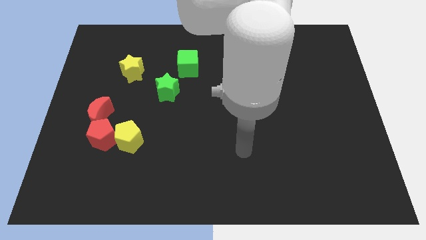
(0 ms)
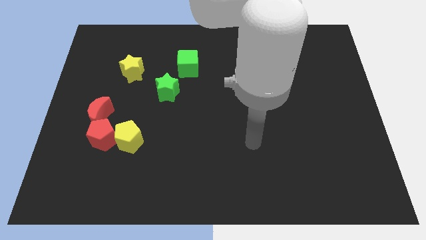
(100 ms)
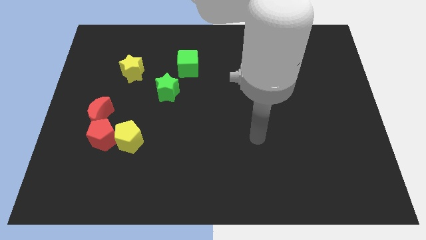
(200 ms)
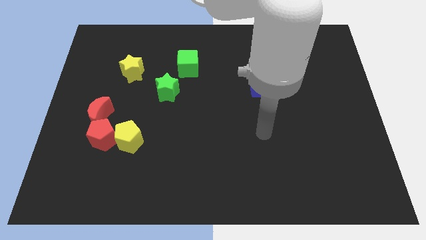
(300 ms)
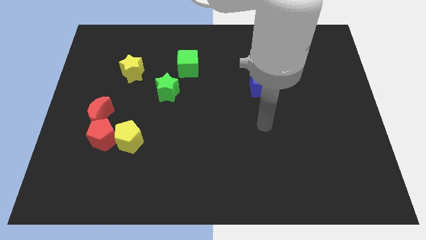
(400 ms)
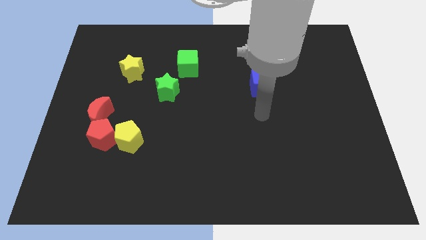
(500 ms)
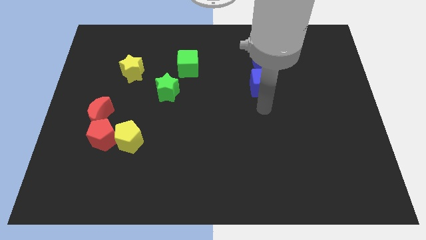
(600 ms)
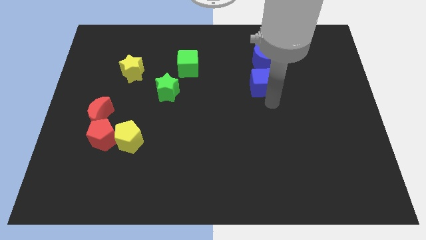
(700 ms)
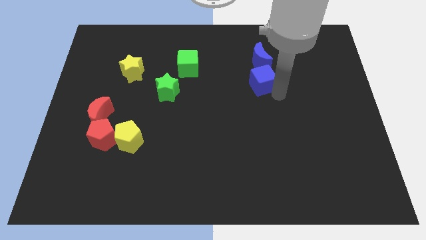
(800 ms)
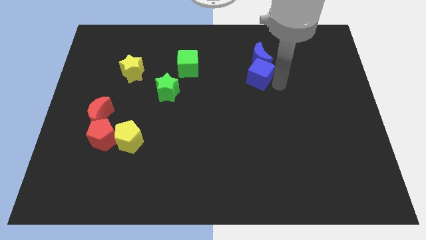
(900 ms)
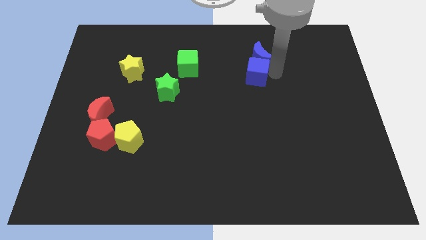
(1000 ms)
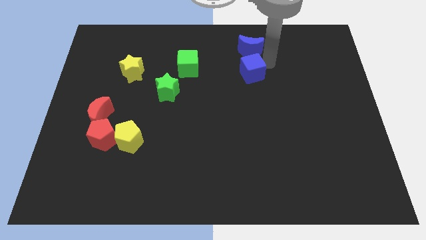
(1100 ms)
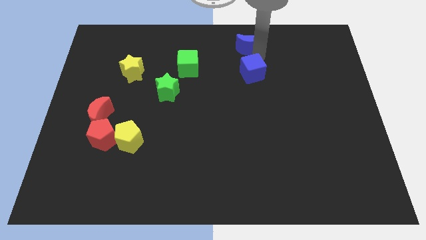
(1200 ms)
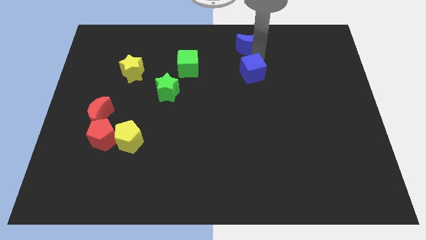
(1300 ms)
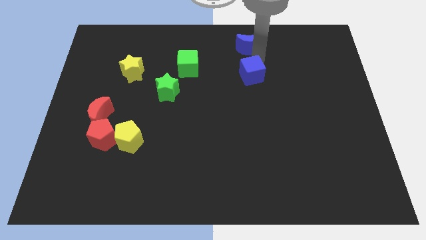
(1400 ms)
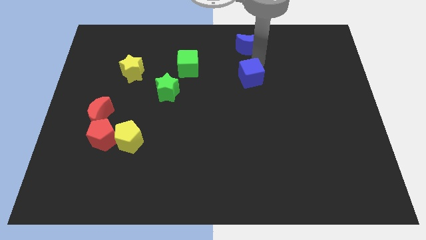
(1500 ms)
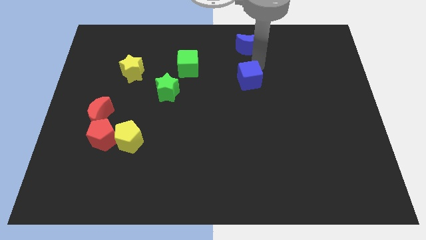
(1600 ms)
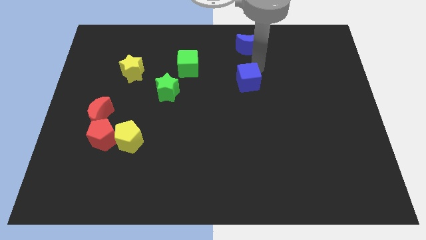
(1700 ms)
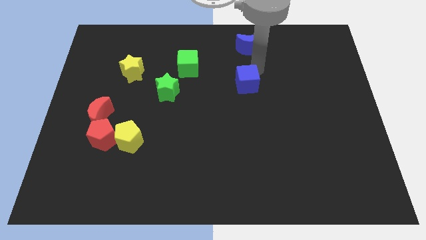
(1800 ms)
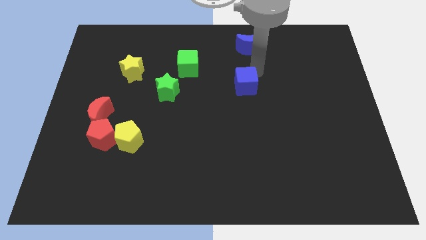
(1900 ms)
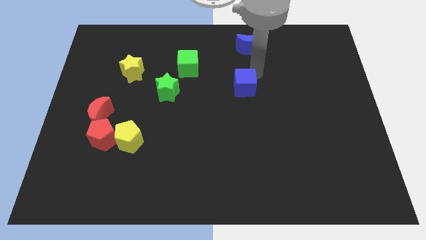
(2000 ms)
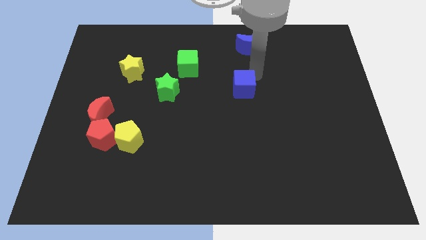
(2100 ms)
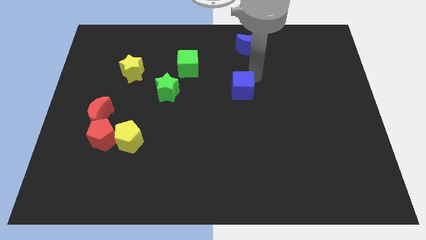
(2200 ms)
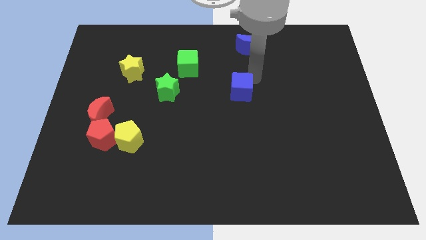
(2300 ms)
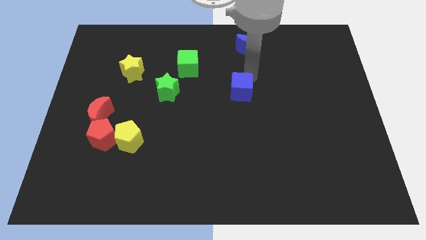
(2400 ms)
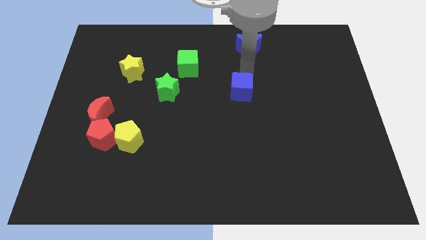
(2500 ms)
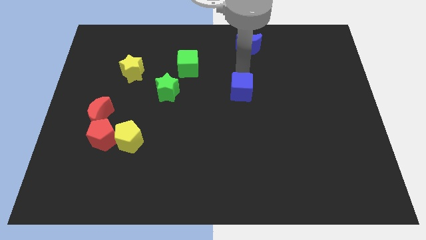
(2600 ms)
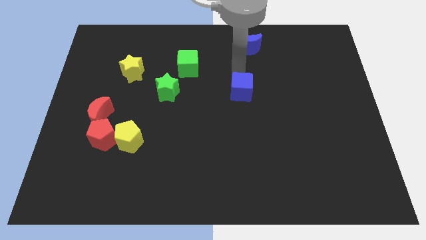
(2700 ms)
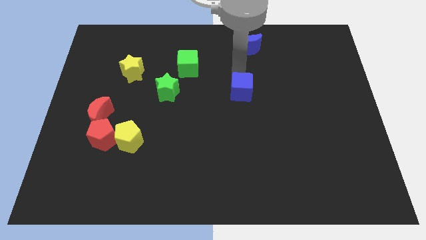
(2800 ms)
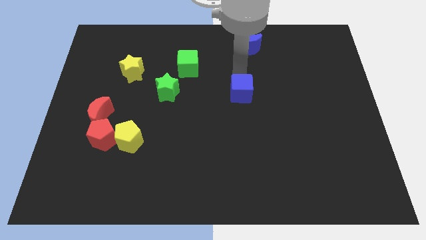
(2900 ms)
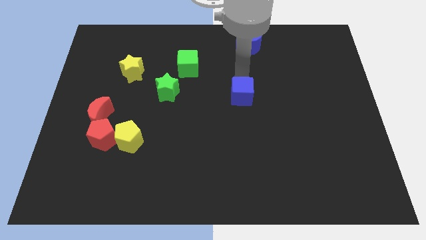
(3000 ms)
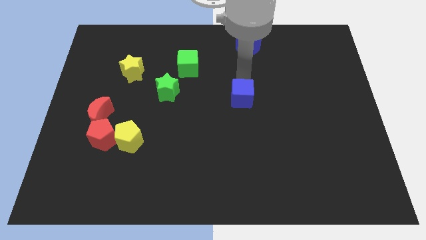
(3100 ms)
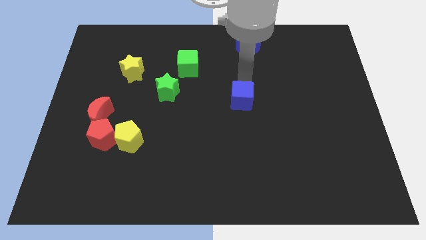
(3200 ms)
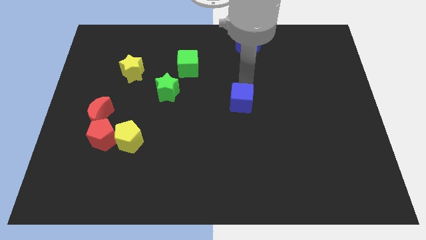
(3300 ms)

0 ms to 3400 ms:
slightly move the blue cube down and then to the left

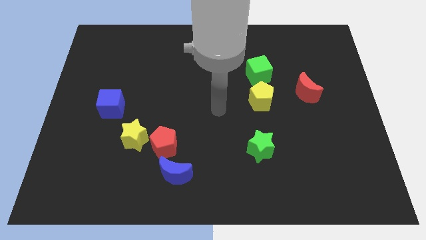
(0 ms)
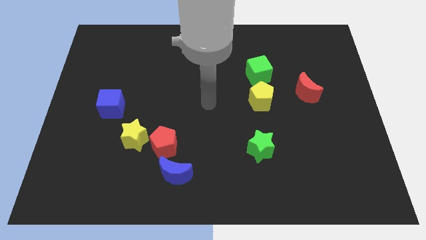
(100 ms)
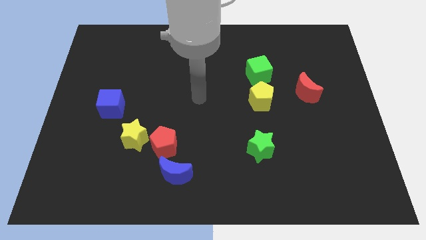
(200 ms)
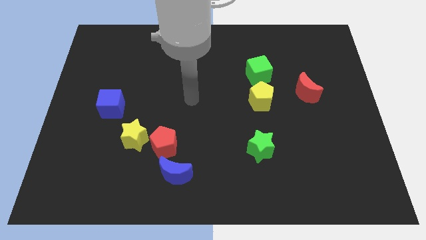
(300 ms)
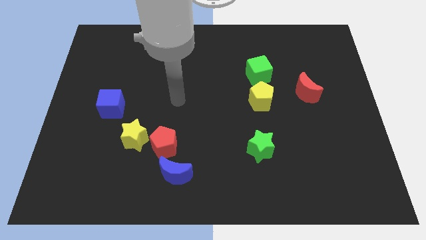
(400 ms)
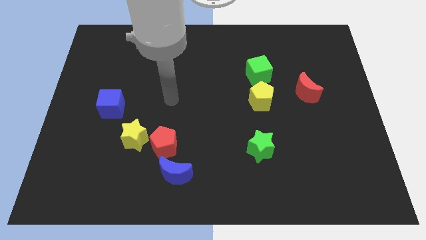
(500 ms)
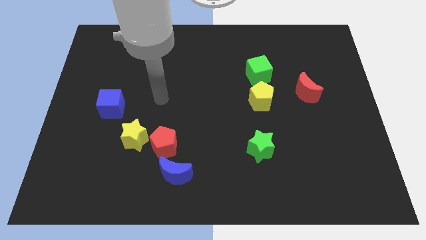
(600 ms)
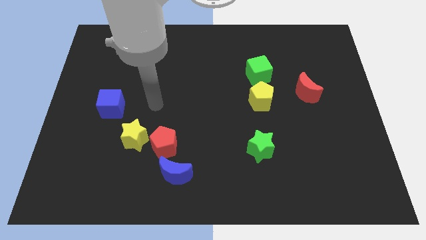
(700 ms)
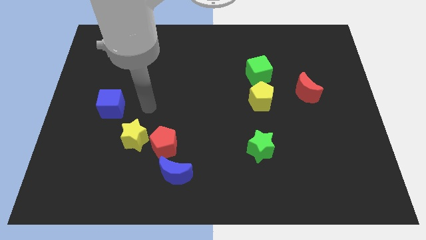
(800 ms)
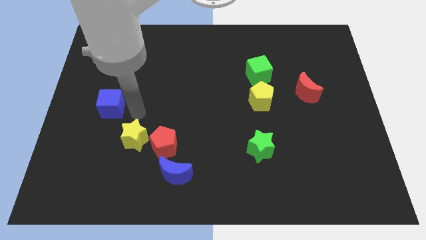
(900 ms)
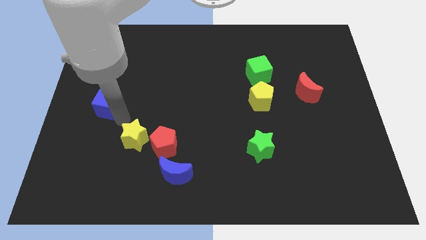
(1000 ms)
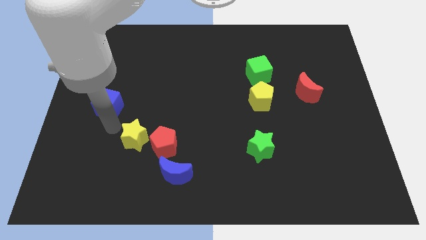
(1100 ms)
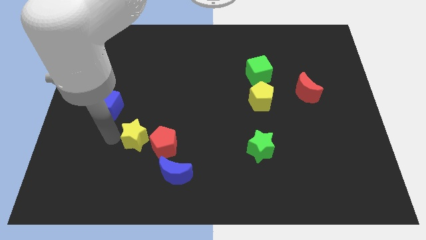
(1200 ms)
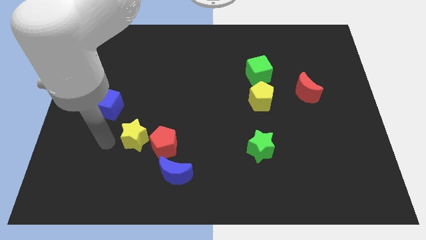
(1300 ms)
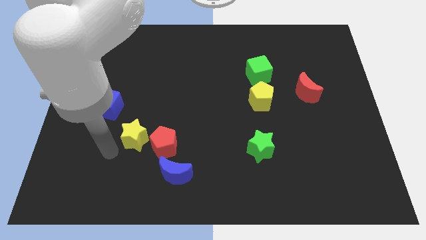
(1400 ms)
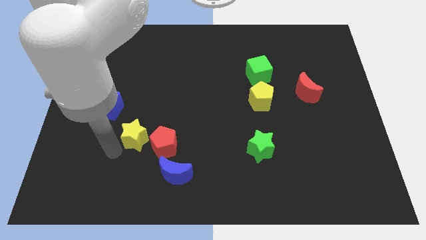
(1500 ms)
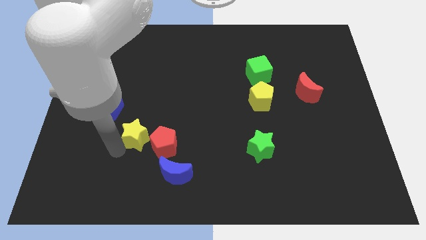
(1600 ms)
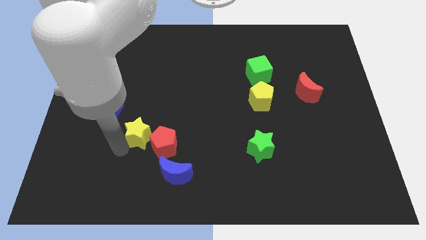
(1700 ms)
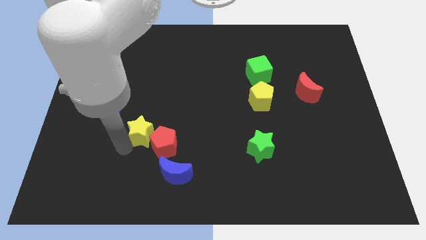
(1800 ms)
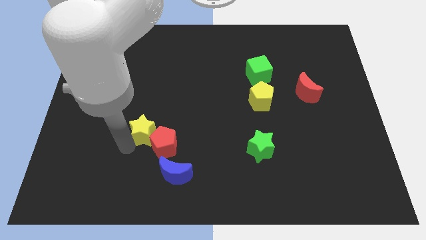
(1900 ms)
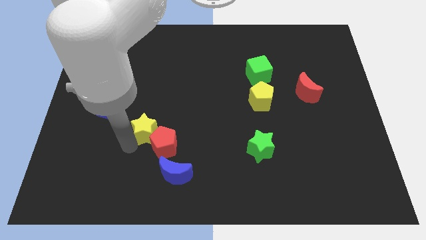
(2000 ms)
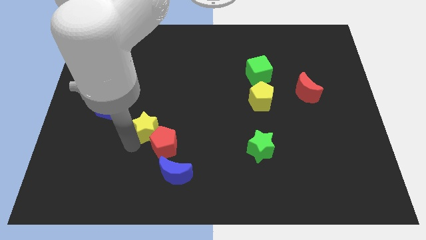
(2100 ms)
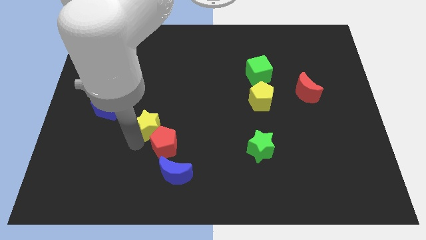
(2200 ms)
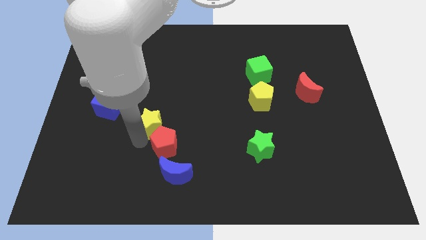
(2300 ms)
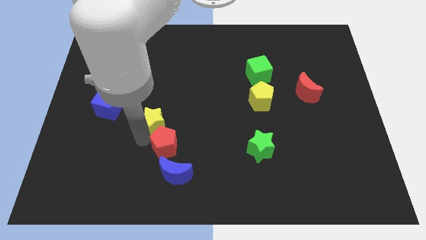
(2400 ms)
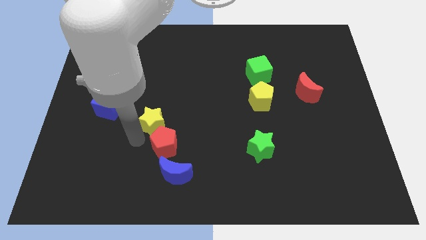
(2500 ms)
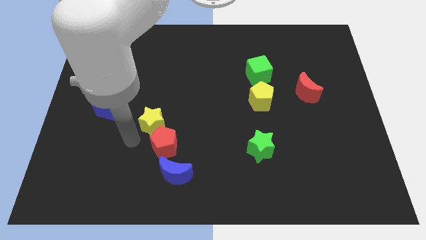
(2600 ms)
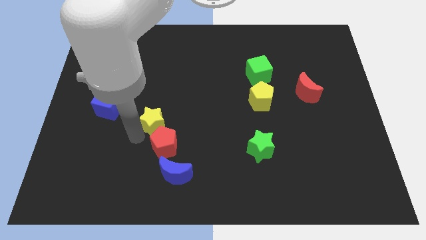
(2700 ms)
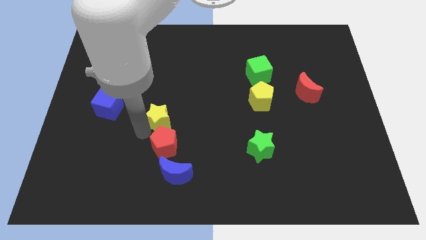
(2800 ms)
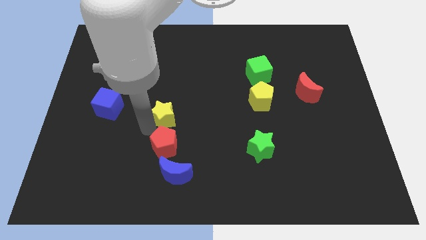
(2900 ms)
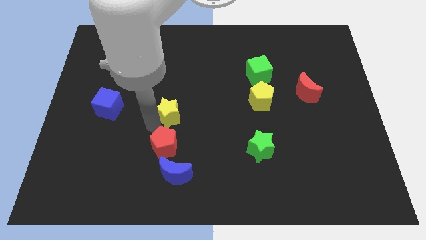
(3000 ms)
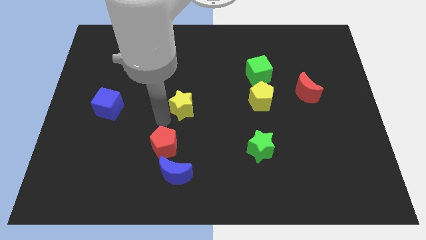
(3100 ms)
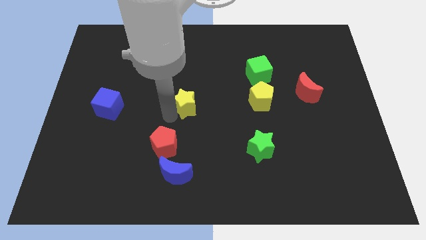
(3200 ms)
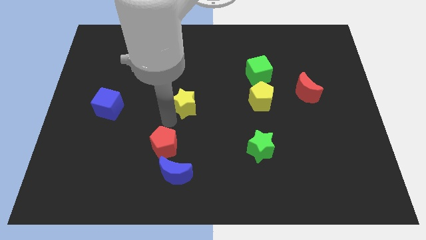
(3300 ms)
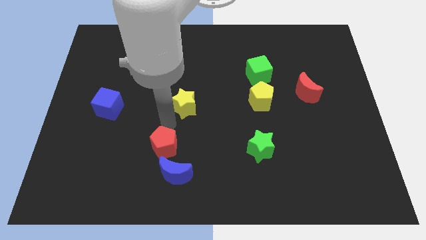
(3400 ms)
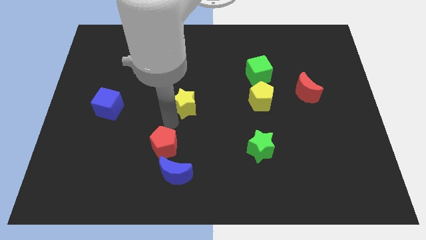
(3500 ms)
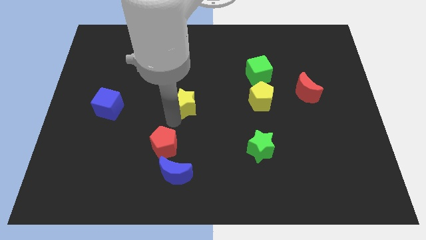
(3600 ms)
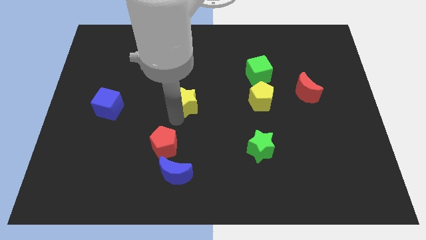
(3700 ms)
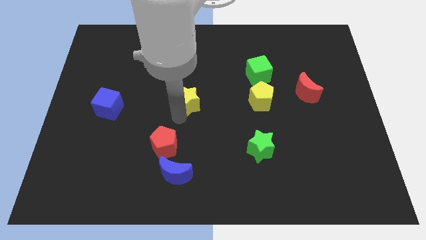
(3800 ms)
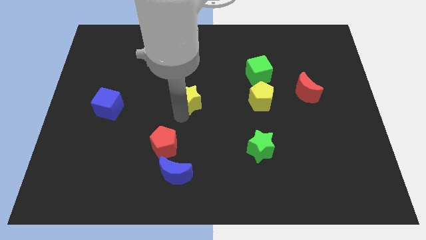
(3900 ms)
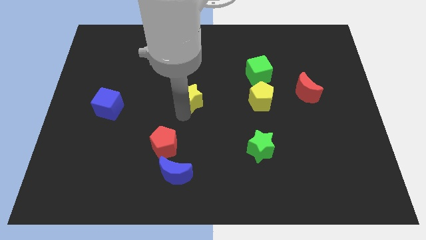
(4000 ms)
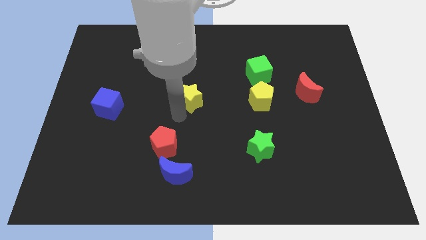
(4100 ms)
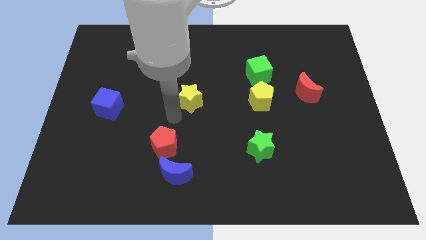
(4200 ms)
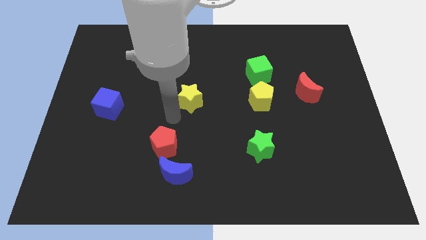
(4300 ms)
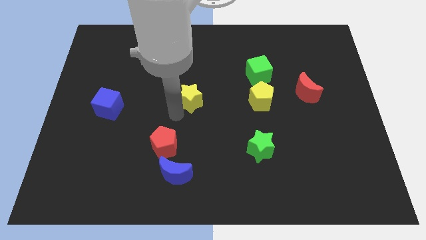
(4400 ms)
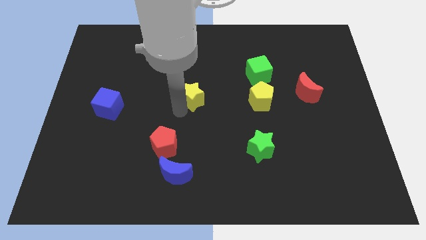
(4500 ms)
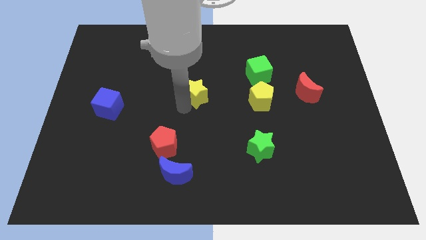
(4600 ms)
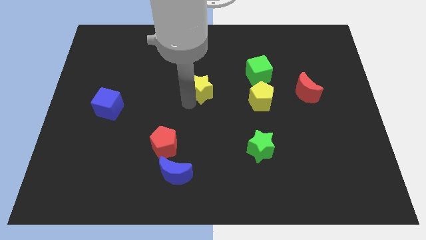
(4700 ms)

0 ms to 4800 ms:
push the yellow star up and then right
